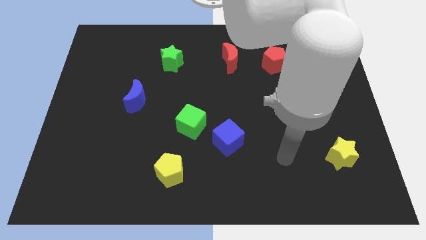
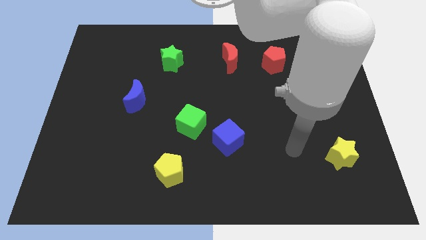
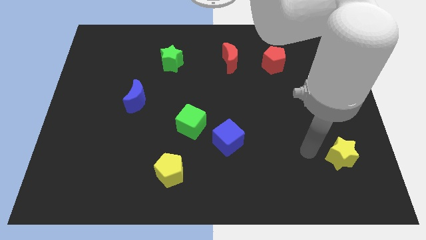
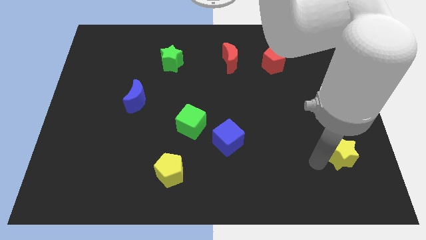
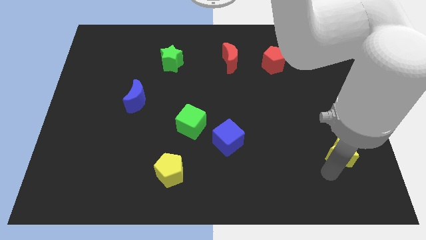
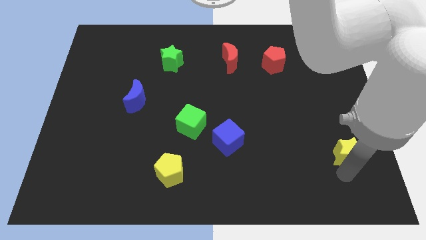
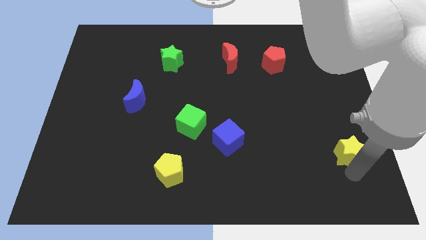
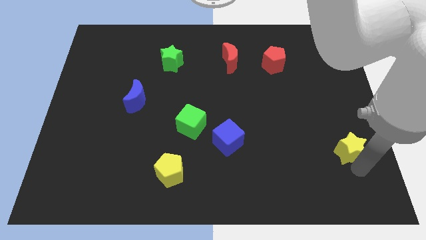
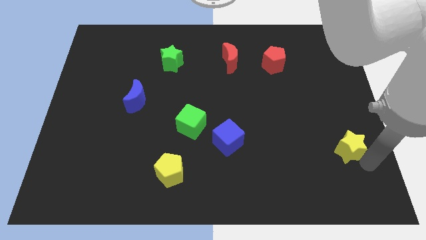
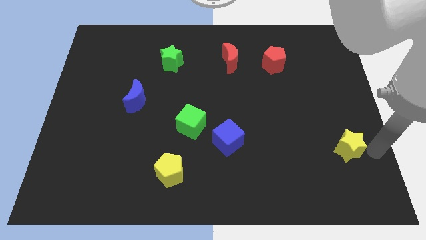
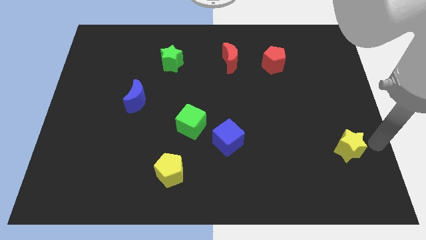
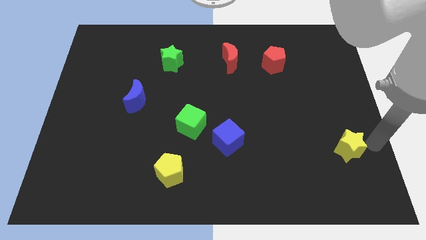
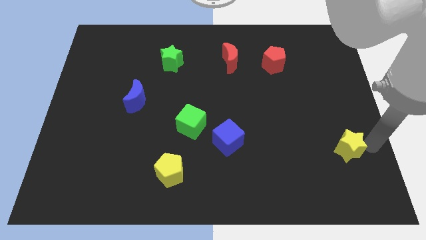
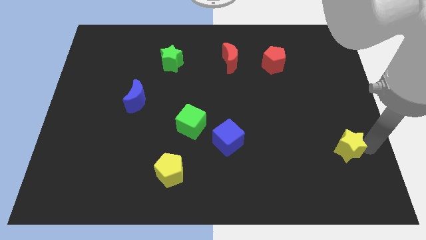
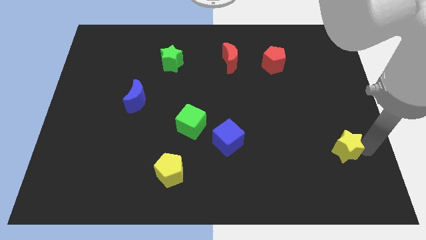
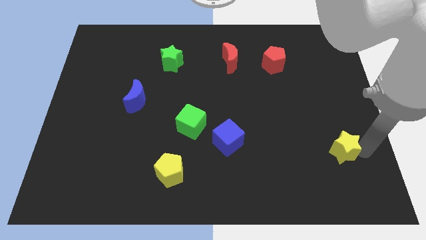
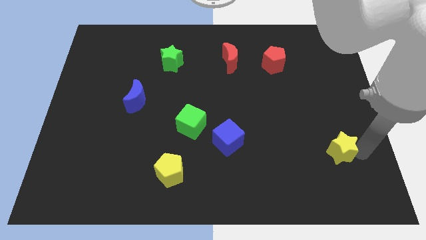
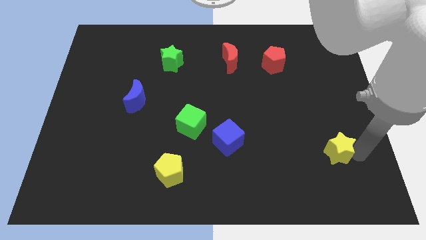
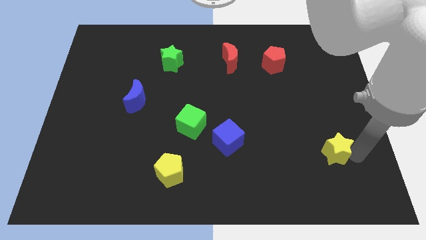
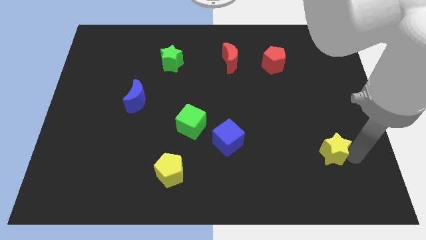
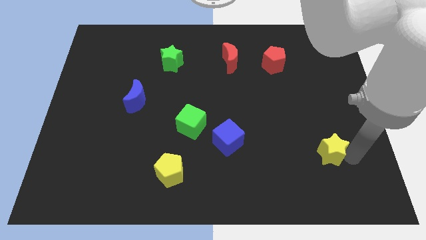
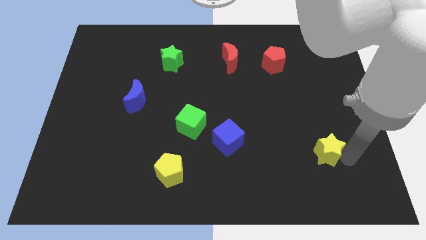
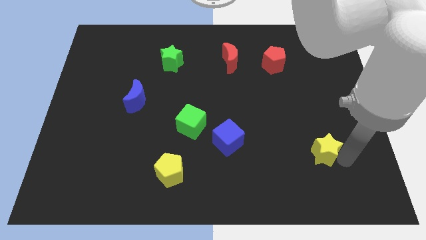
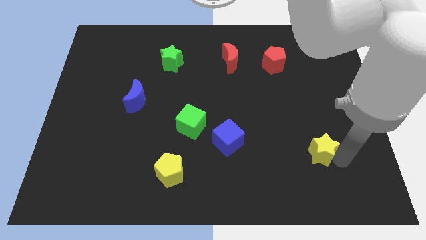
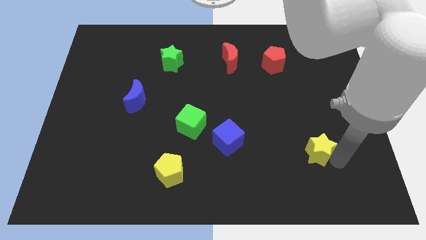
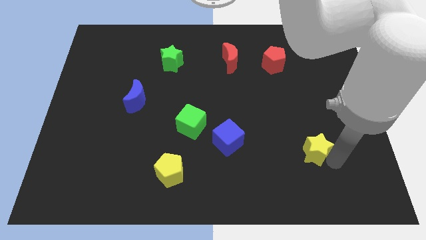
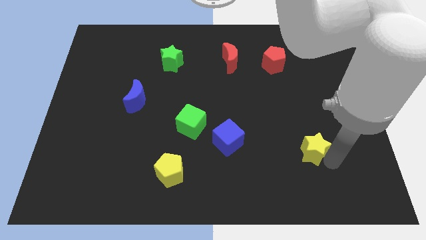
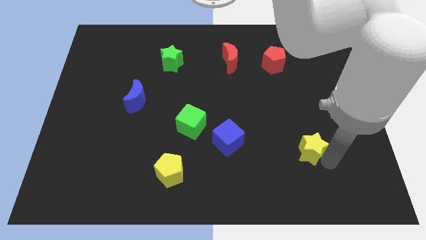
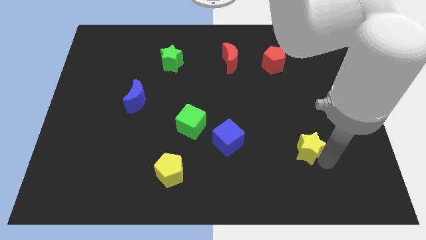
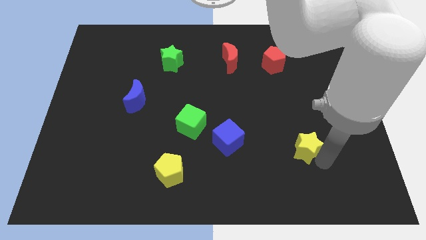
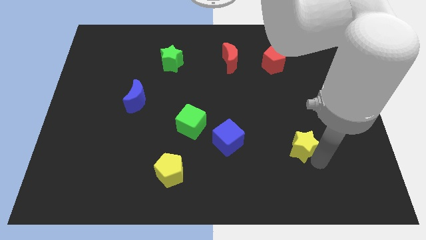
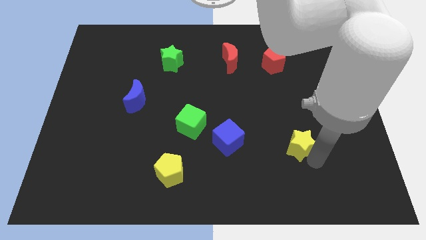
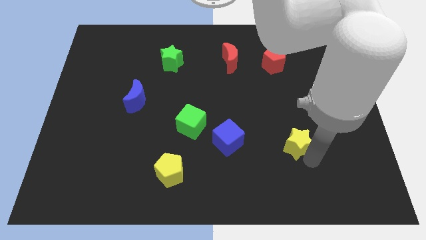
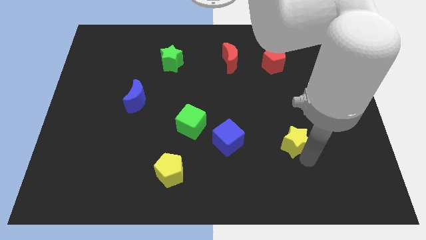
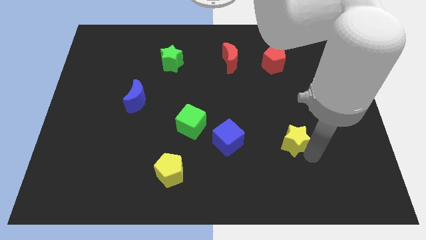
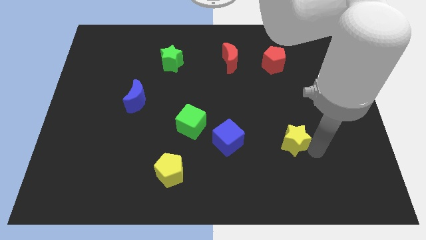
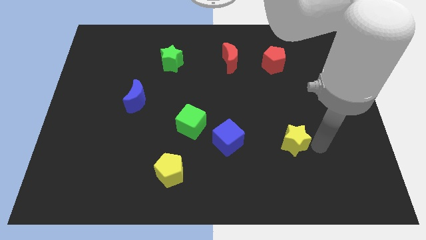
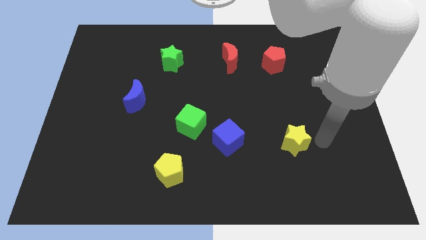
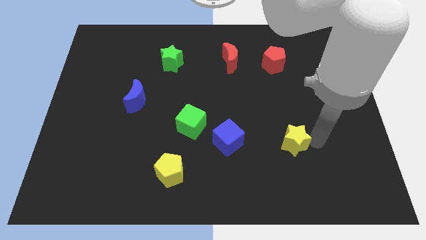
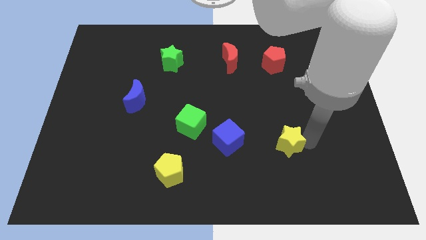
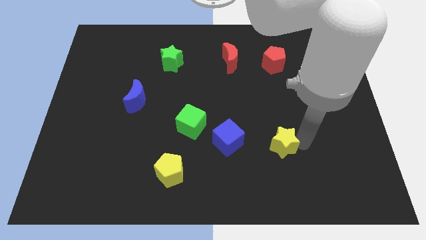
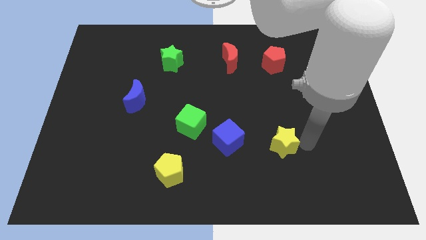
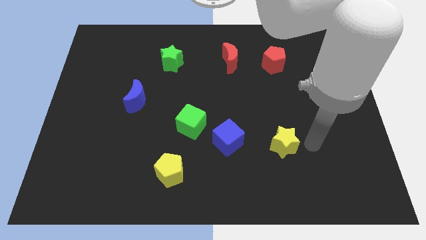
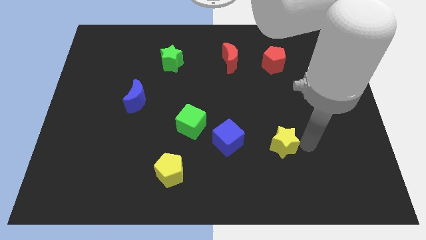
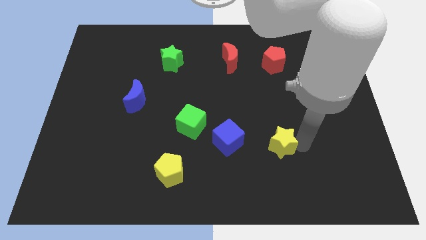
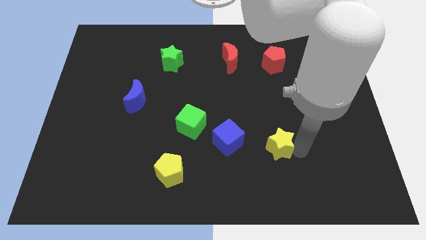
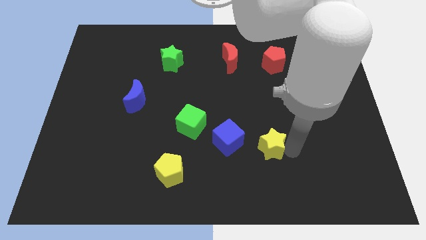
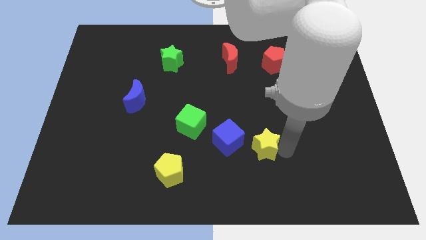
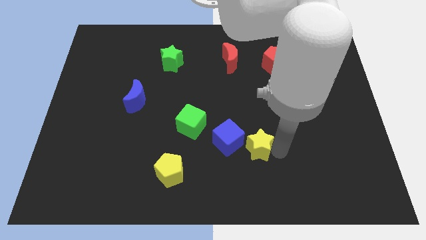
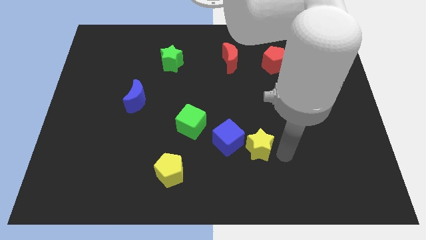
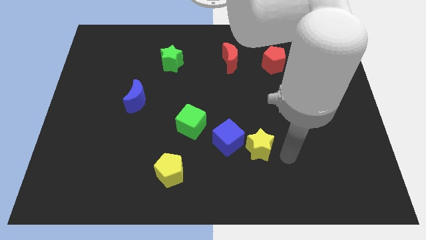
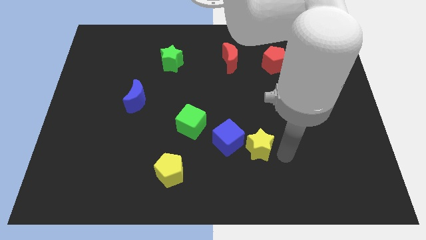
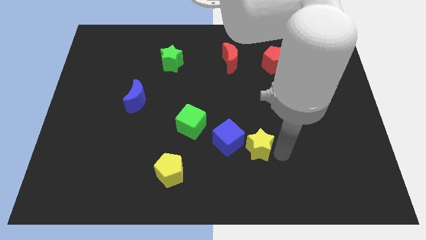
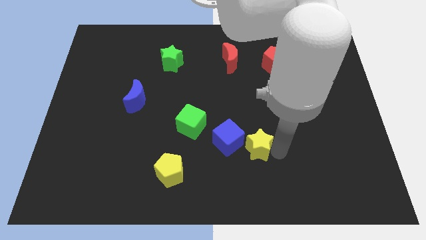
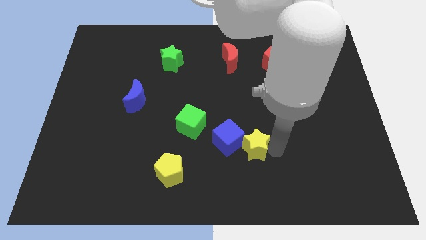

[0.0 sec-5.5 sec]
put the yellow star next to the blue cube

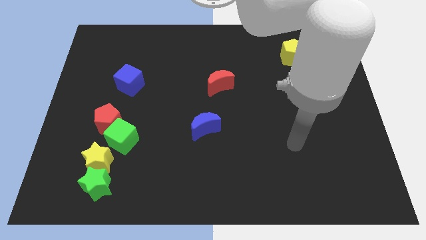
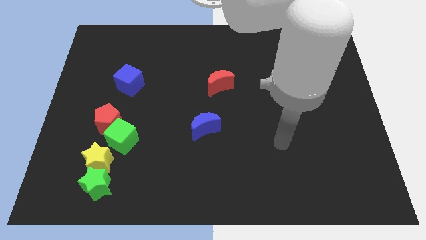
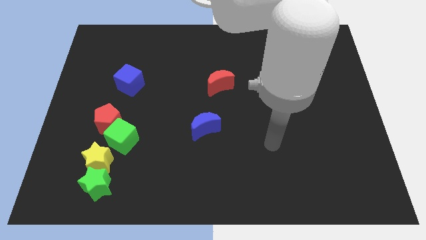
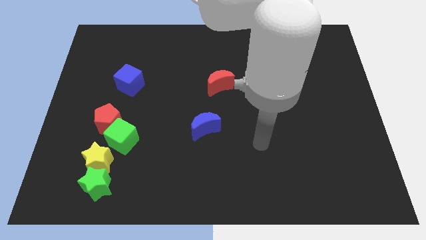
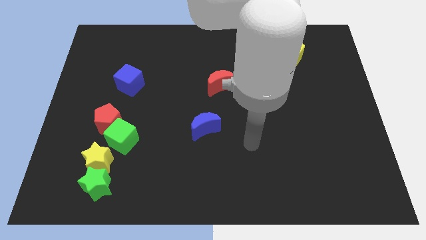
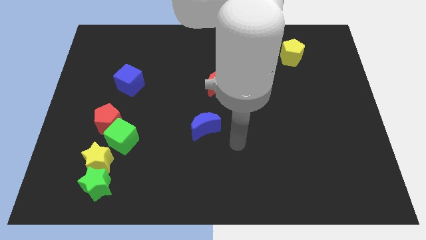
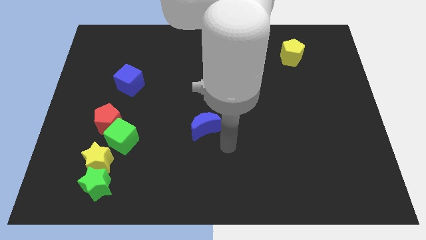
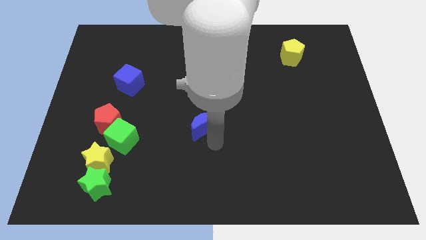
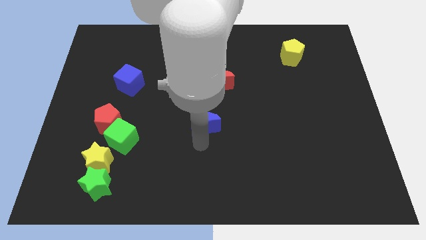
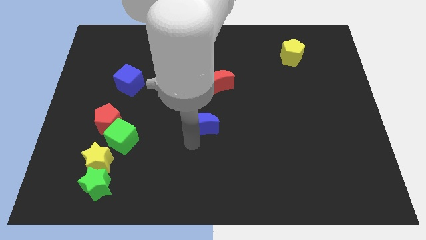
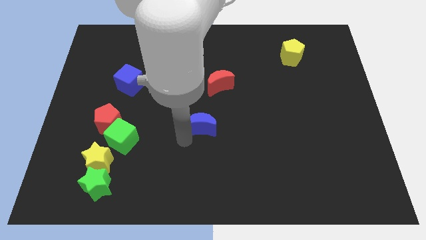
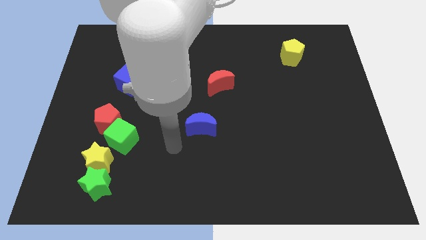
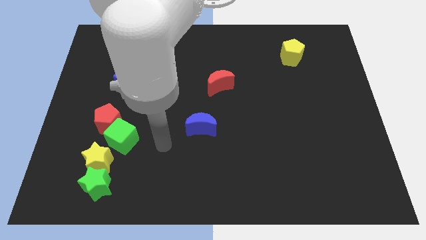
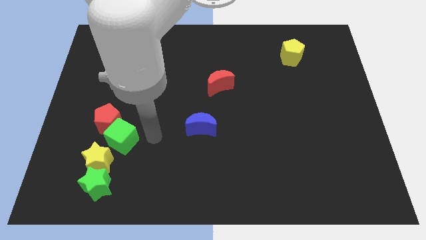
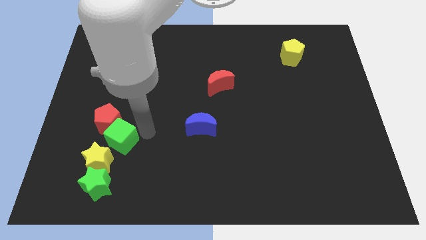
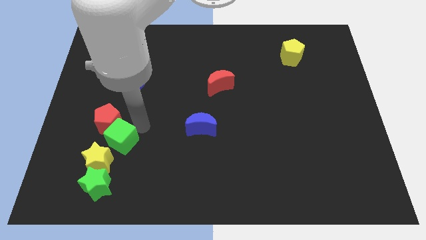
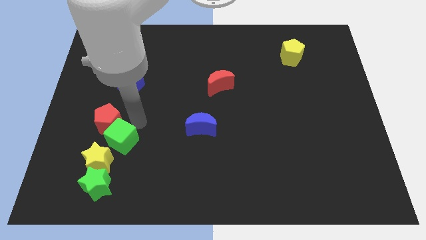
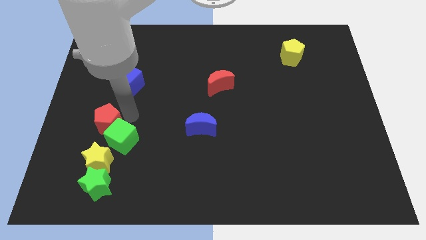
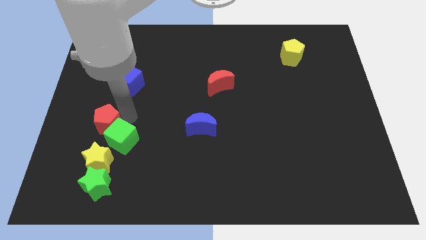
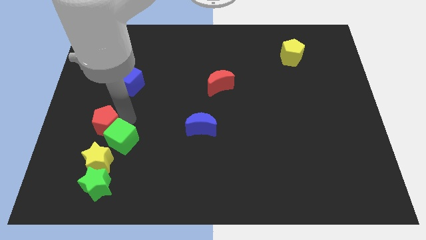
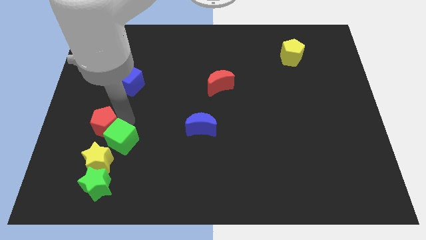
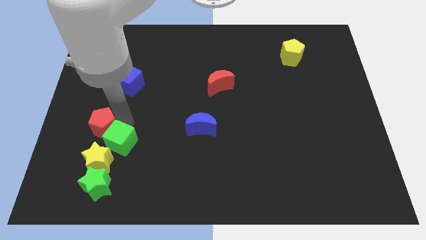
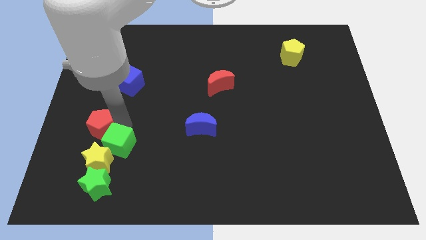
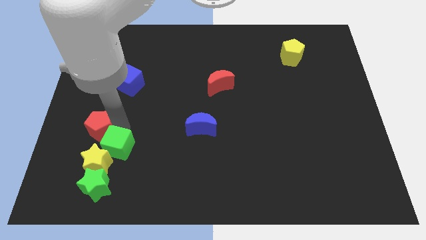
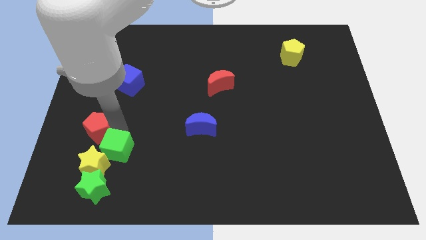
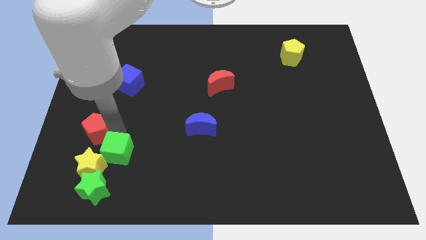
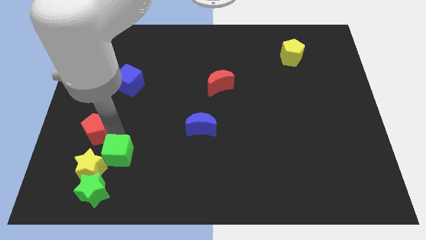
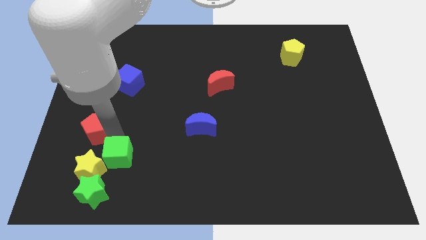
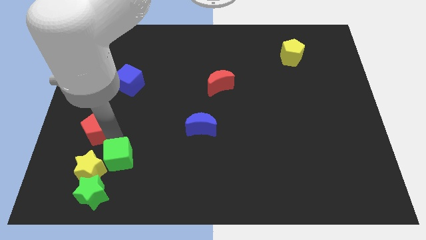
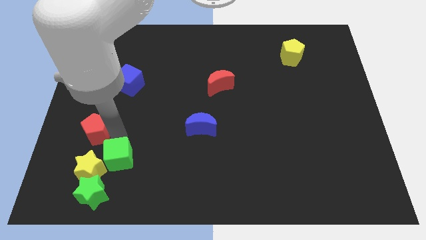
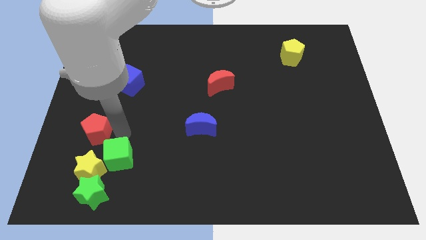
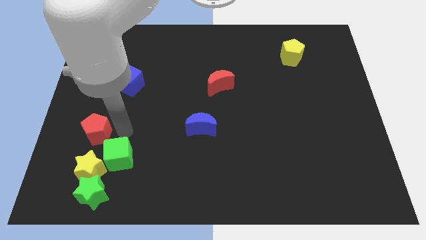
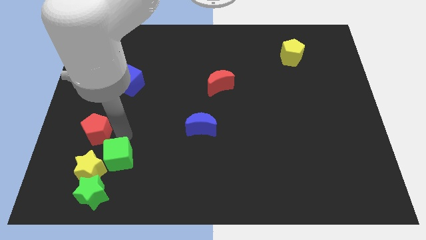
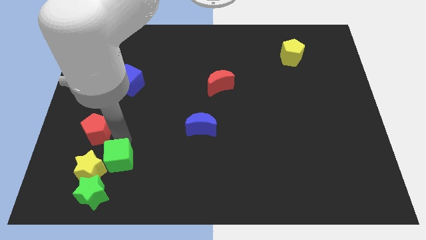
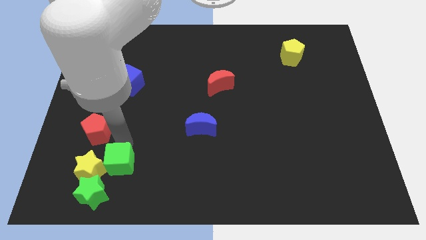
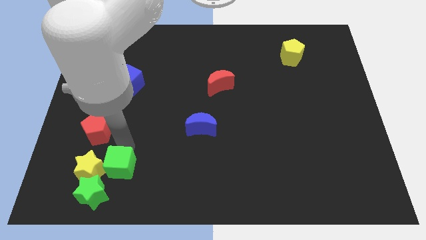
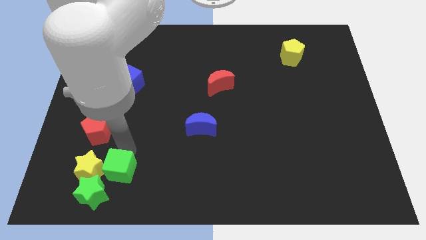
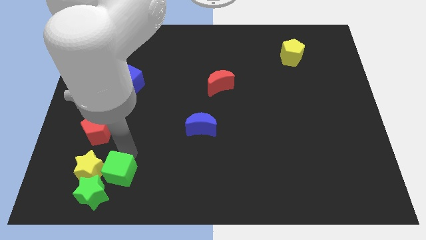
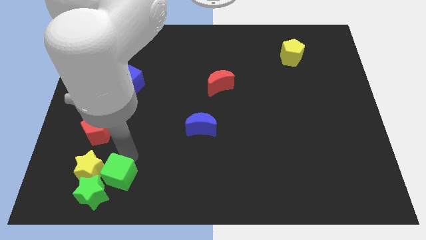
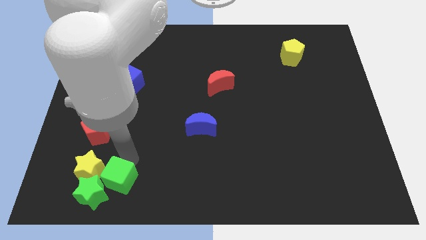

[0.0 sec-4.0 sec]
slide the green cube close to the green star
